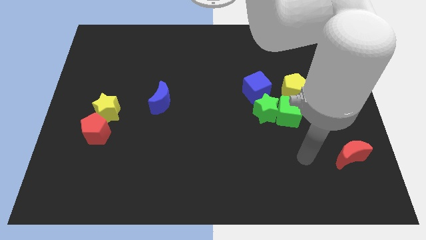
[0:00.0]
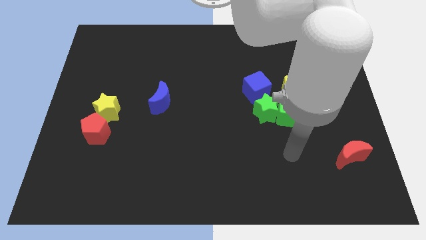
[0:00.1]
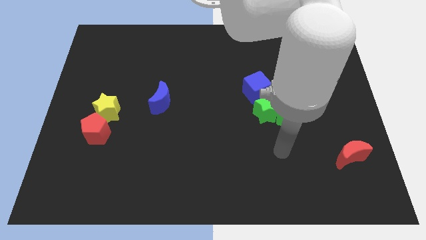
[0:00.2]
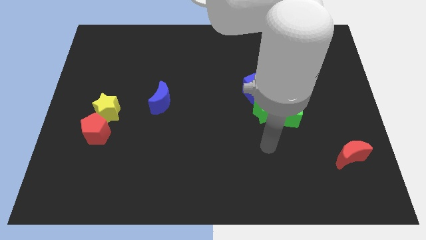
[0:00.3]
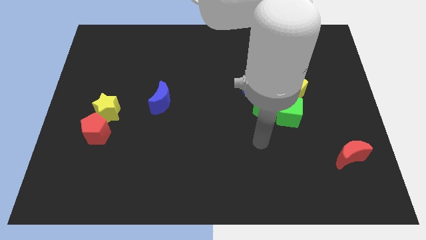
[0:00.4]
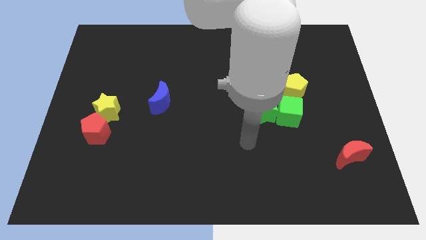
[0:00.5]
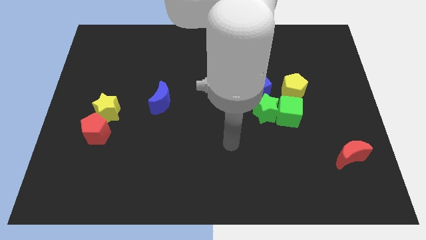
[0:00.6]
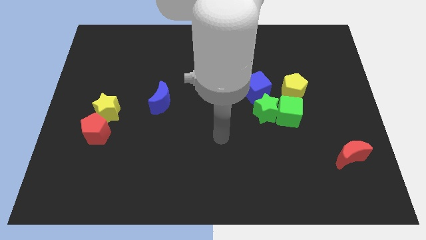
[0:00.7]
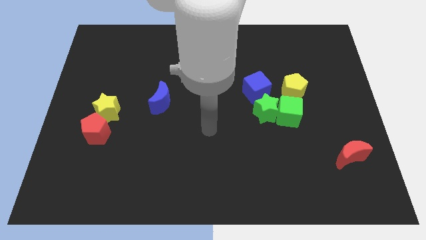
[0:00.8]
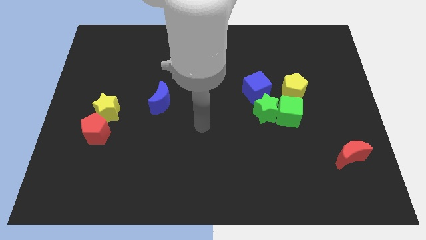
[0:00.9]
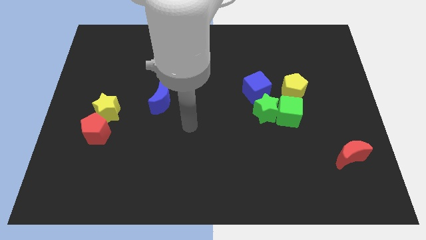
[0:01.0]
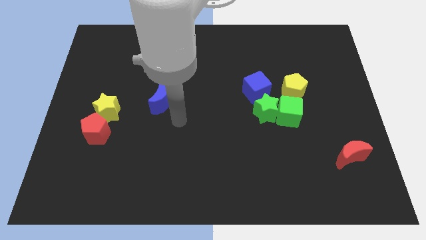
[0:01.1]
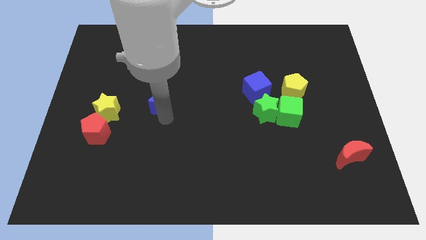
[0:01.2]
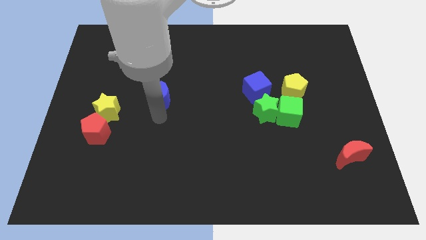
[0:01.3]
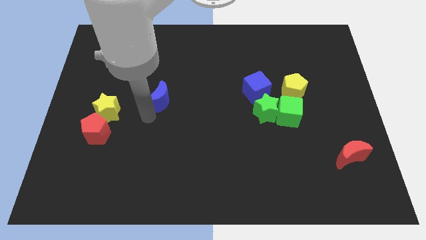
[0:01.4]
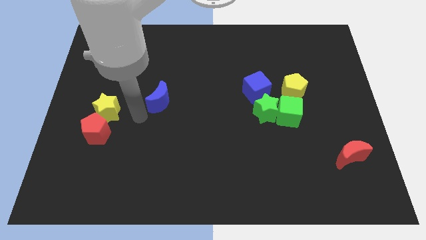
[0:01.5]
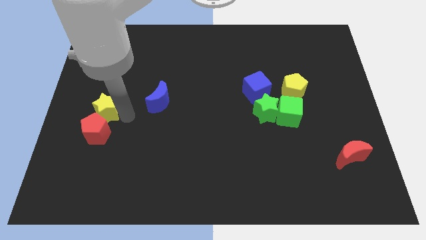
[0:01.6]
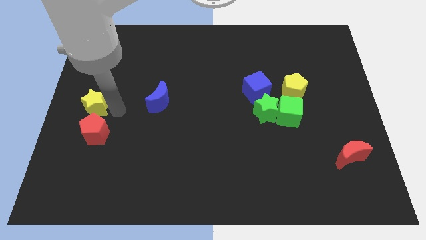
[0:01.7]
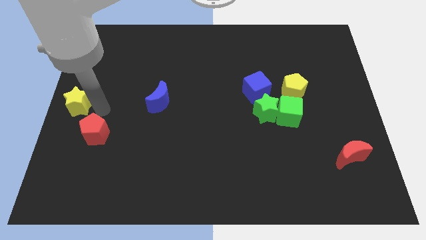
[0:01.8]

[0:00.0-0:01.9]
separate the red pentagon from the yellow star

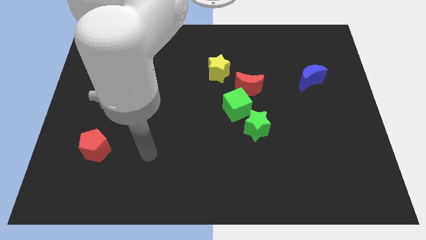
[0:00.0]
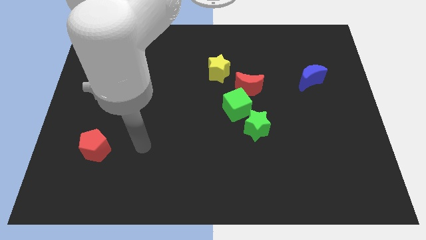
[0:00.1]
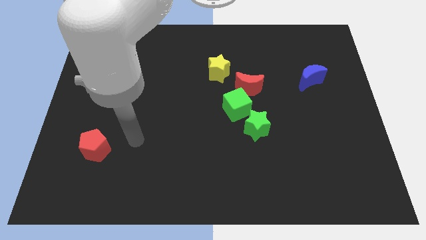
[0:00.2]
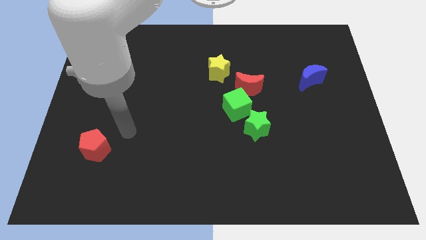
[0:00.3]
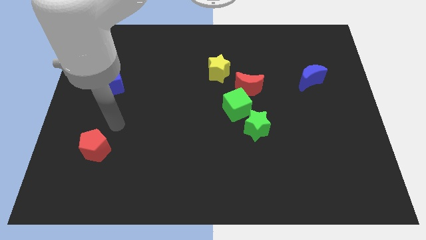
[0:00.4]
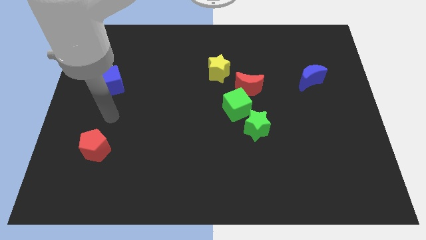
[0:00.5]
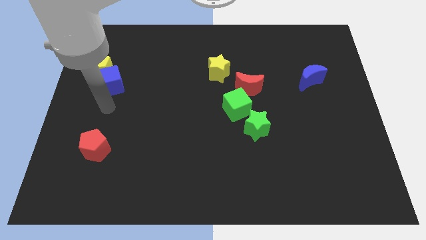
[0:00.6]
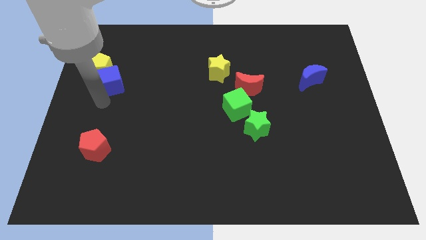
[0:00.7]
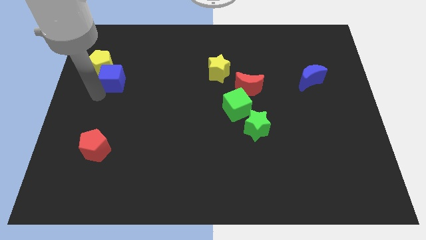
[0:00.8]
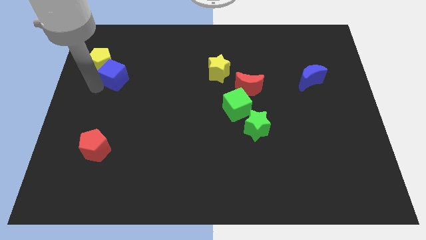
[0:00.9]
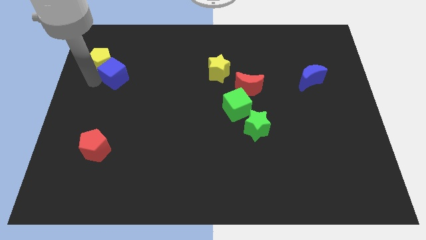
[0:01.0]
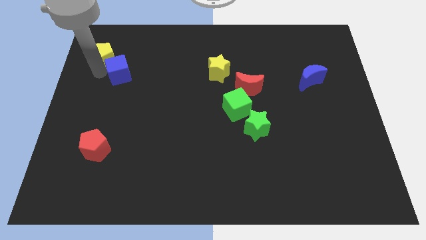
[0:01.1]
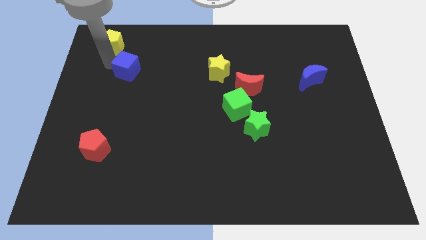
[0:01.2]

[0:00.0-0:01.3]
separate the blue cube from the yellow pentagon

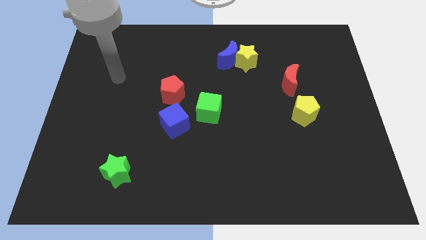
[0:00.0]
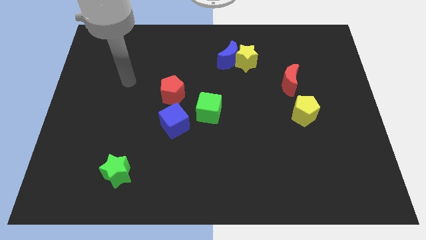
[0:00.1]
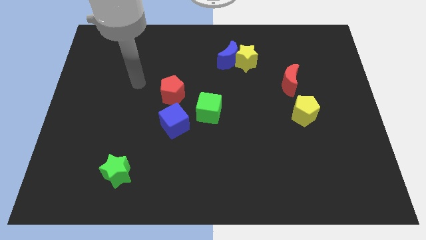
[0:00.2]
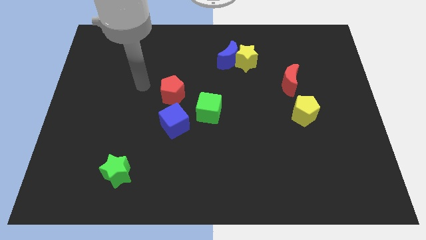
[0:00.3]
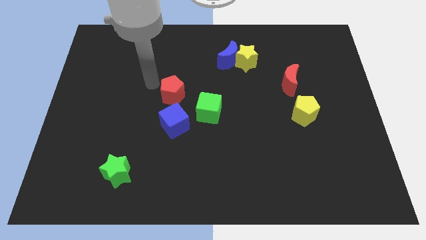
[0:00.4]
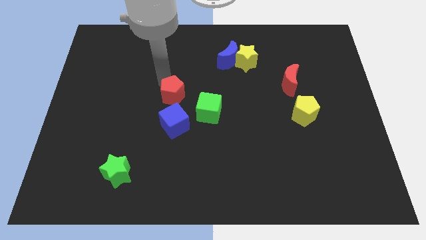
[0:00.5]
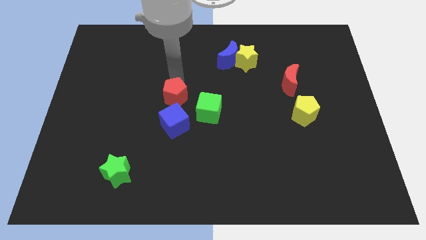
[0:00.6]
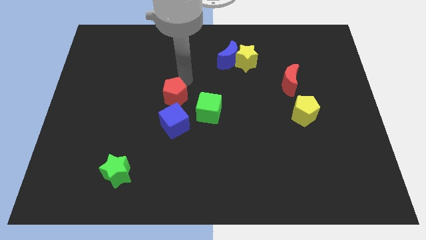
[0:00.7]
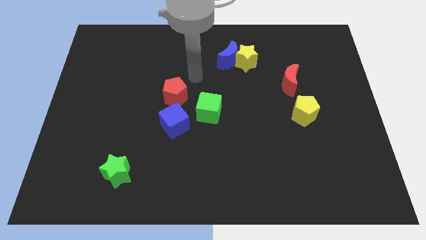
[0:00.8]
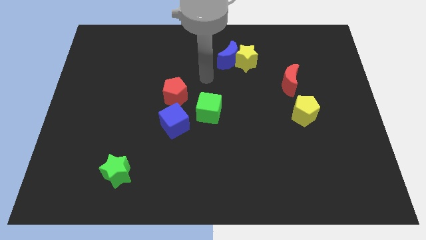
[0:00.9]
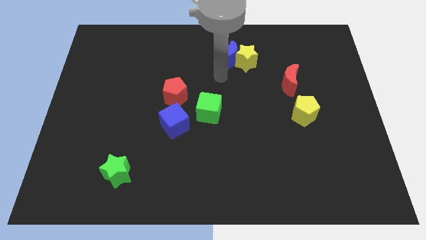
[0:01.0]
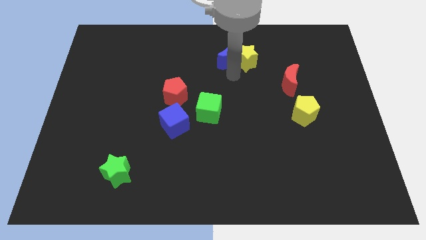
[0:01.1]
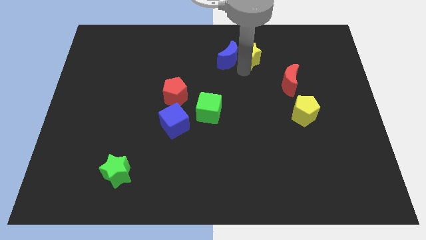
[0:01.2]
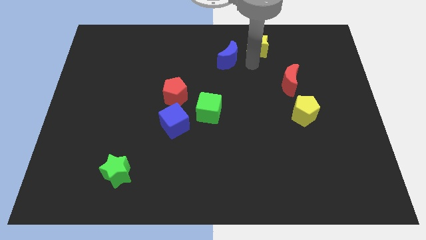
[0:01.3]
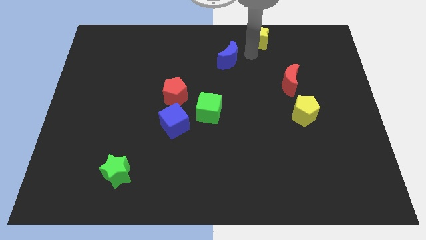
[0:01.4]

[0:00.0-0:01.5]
pull the blue moon apart from the yellow star

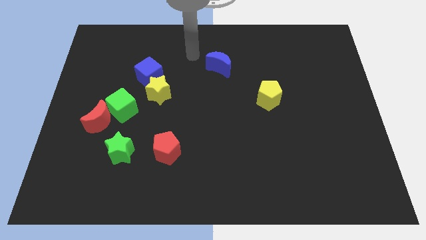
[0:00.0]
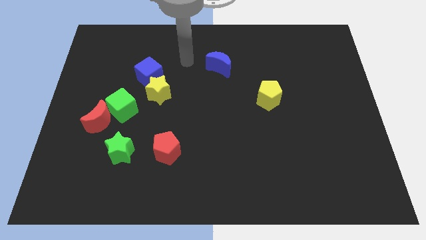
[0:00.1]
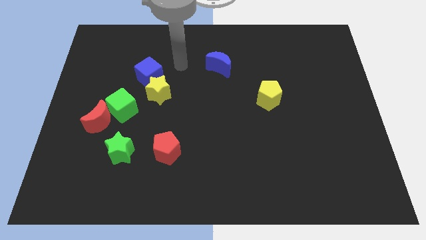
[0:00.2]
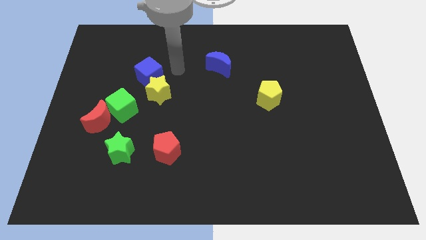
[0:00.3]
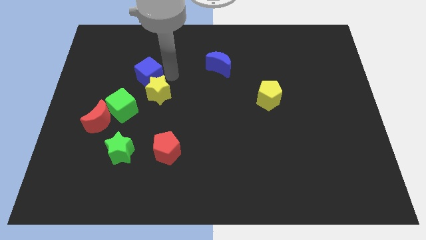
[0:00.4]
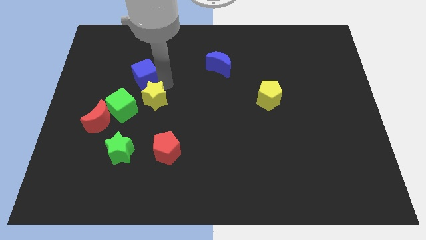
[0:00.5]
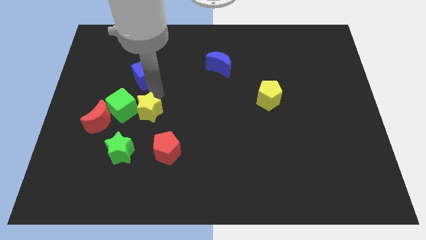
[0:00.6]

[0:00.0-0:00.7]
pull the blue cube apart from the yellow star

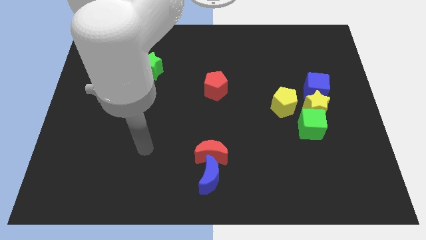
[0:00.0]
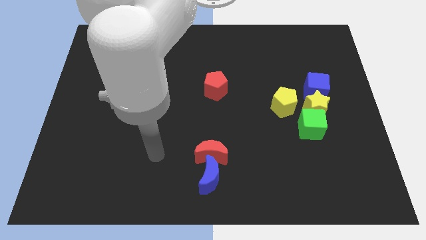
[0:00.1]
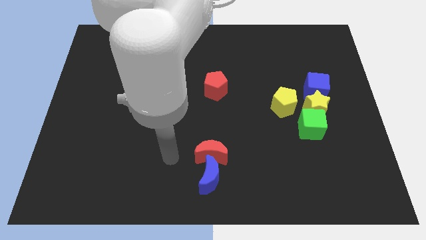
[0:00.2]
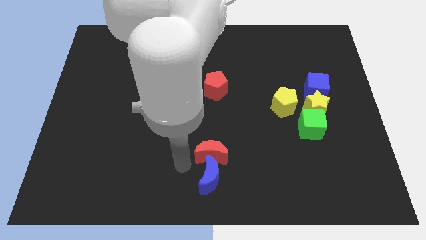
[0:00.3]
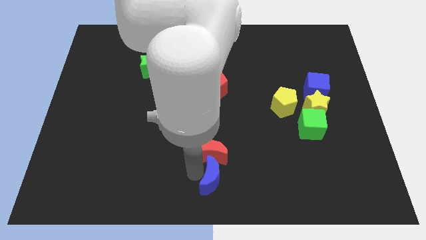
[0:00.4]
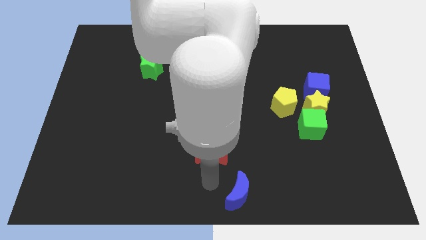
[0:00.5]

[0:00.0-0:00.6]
pull the red moon apart from the blue moon

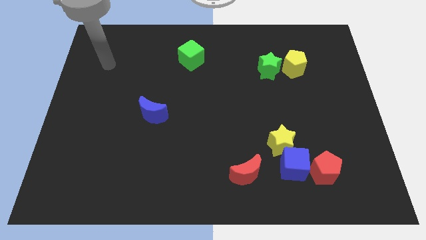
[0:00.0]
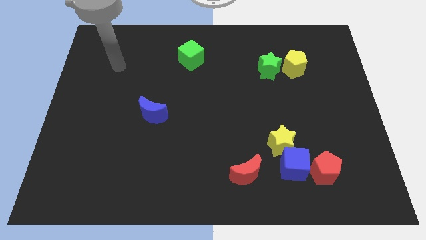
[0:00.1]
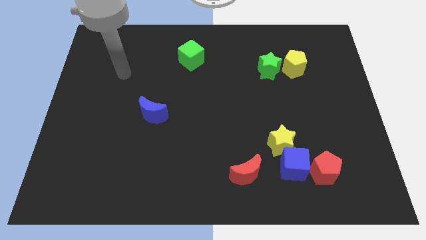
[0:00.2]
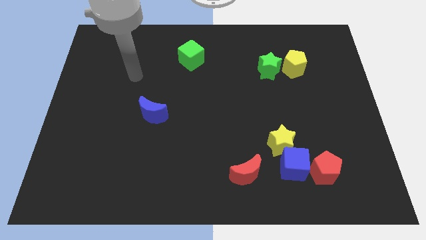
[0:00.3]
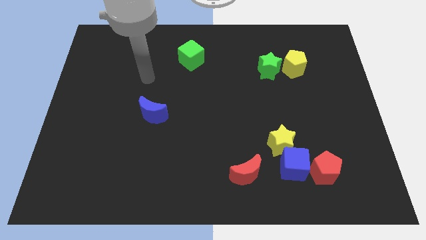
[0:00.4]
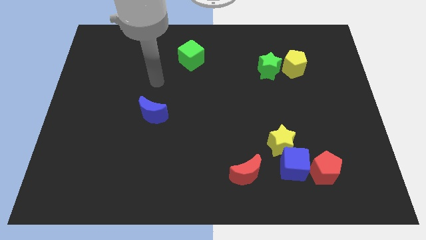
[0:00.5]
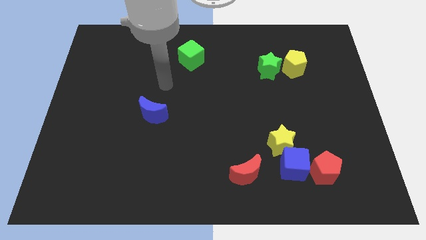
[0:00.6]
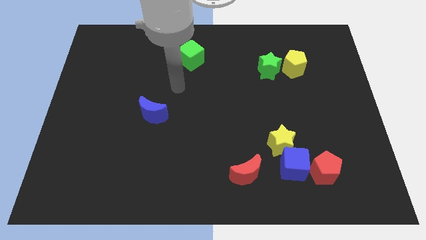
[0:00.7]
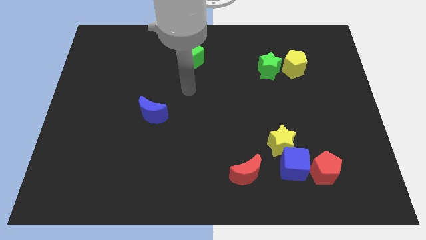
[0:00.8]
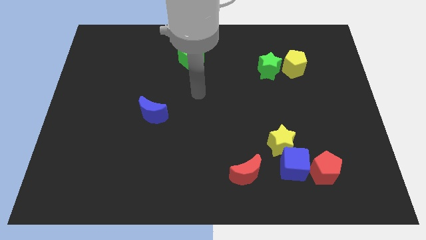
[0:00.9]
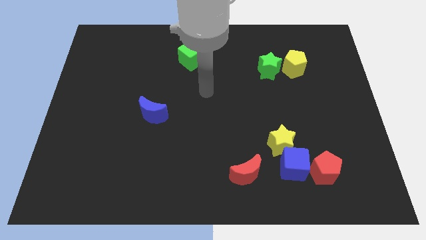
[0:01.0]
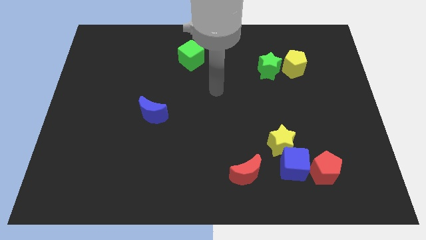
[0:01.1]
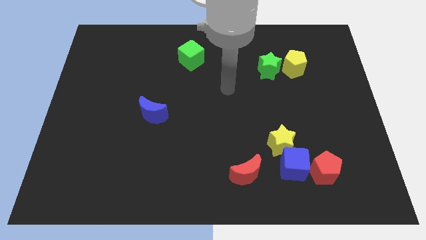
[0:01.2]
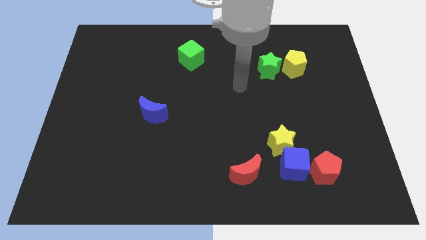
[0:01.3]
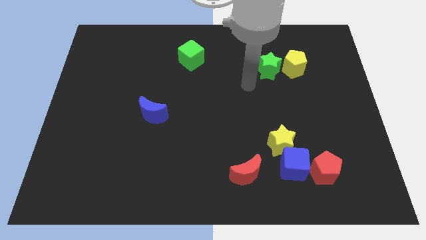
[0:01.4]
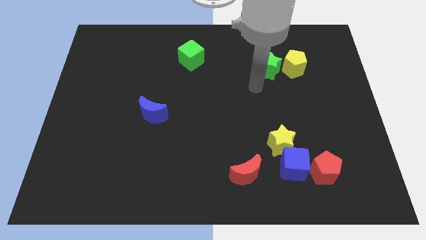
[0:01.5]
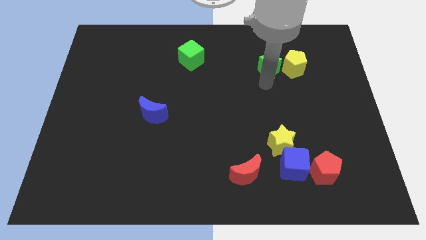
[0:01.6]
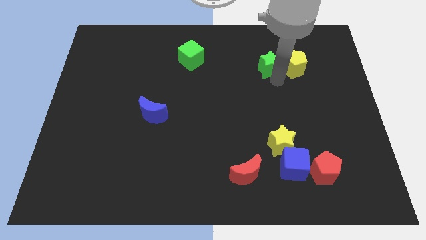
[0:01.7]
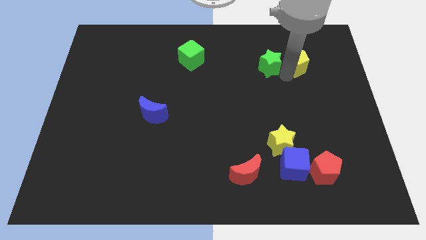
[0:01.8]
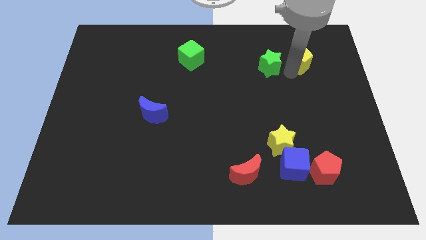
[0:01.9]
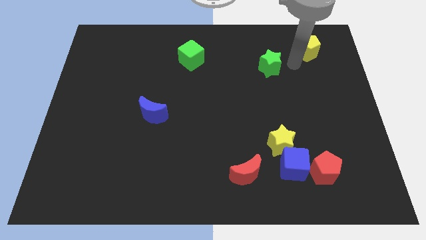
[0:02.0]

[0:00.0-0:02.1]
pull the green star apart from the yellow pentagon

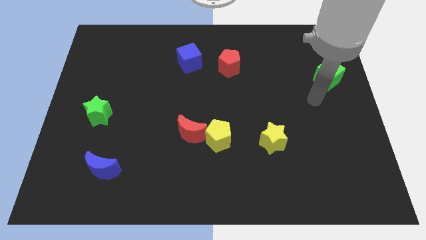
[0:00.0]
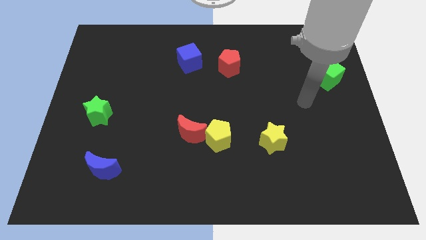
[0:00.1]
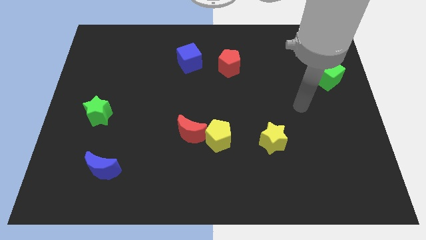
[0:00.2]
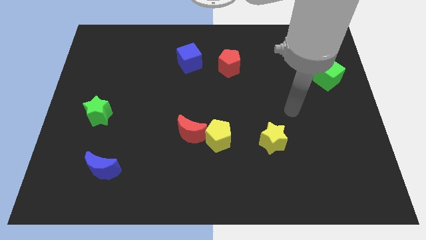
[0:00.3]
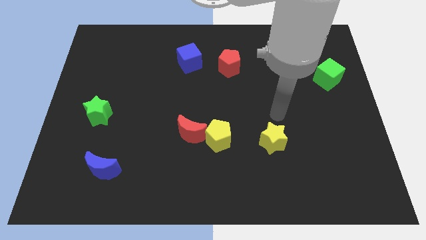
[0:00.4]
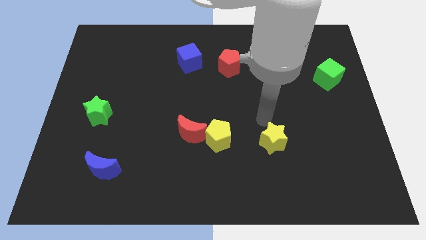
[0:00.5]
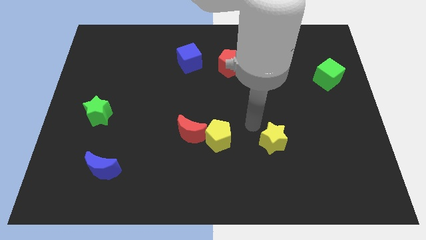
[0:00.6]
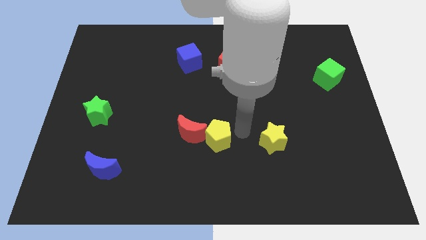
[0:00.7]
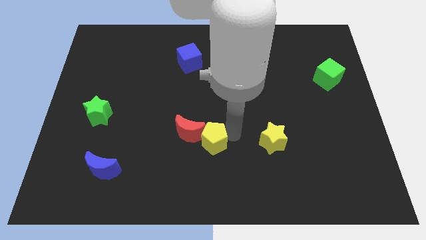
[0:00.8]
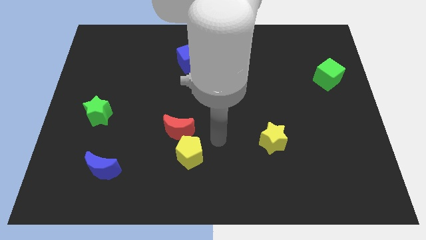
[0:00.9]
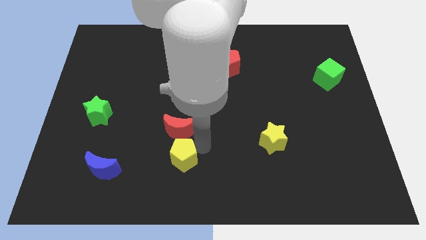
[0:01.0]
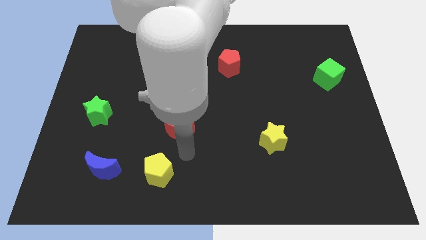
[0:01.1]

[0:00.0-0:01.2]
move the red moon away from the yellow pentagon
